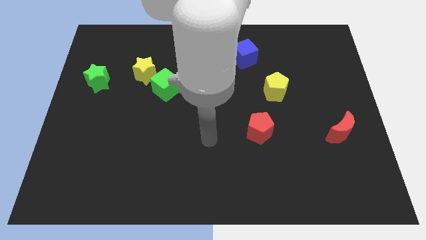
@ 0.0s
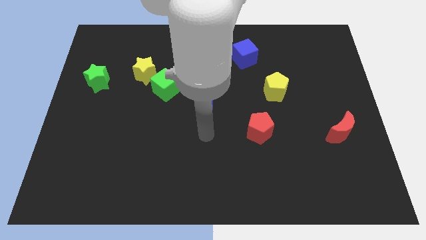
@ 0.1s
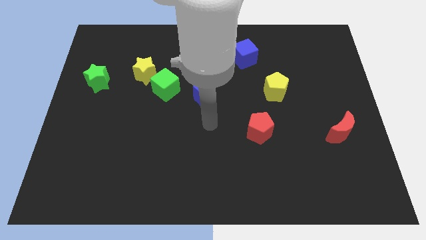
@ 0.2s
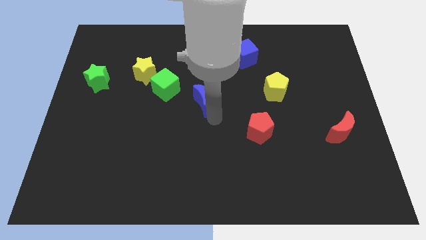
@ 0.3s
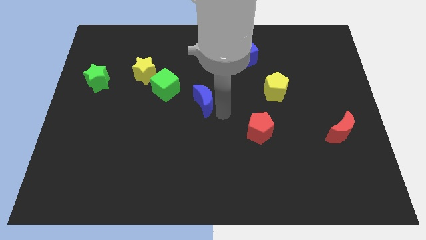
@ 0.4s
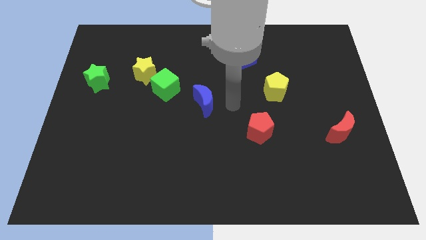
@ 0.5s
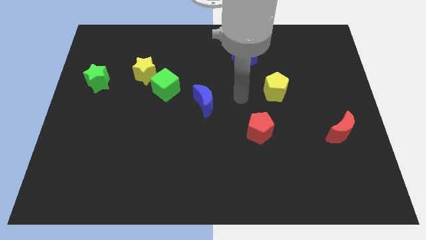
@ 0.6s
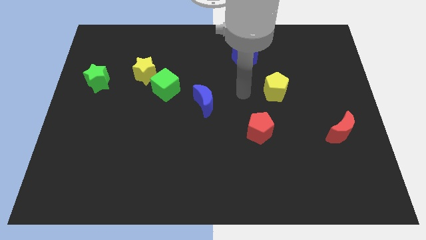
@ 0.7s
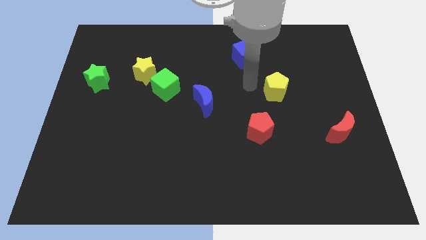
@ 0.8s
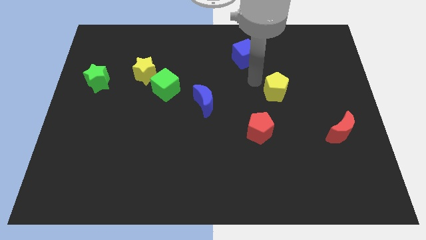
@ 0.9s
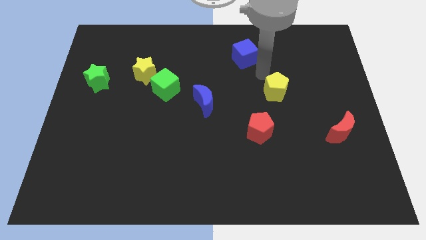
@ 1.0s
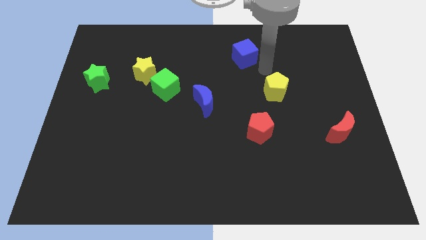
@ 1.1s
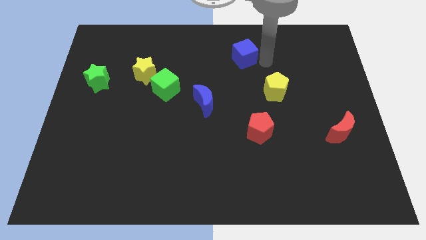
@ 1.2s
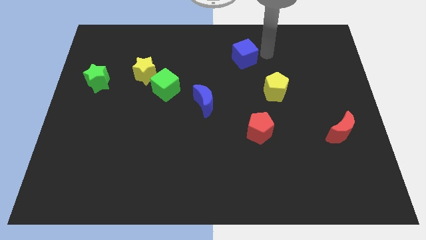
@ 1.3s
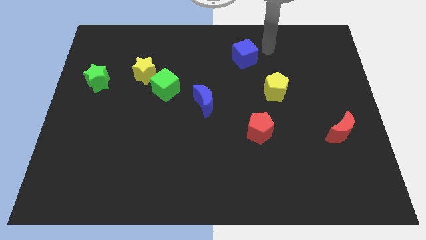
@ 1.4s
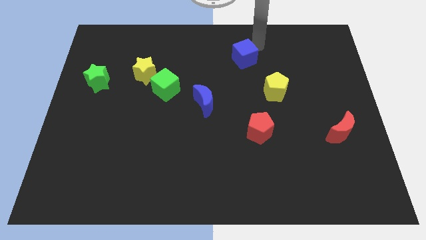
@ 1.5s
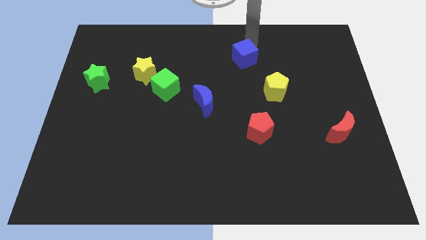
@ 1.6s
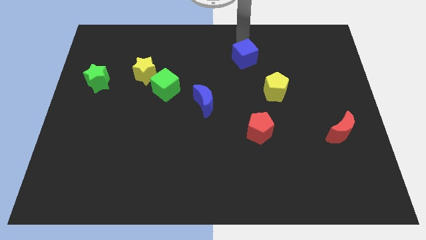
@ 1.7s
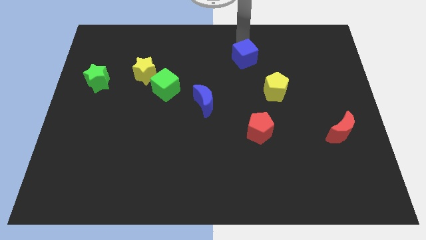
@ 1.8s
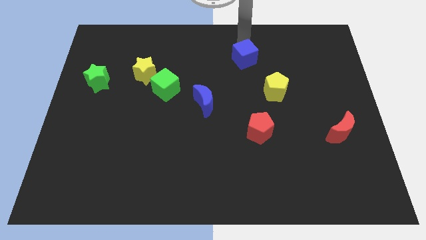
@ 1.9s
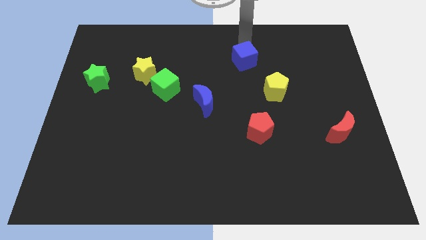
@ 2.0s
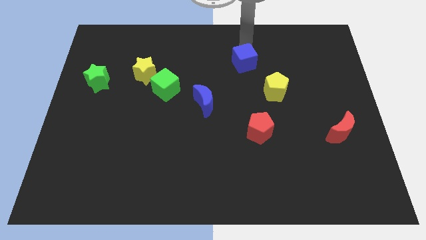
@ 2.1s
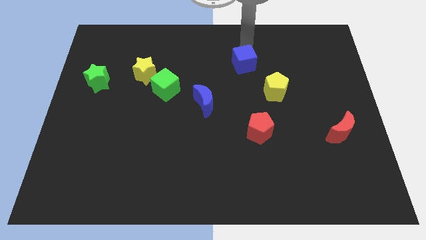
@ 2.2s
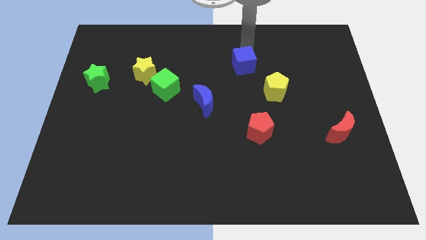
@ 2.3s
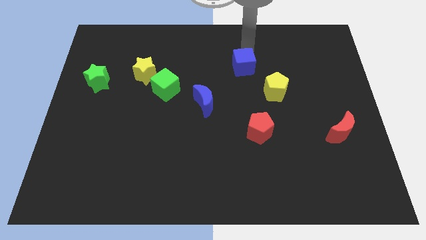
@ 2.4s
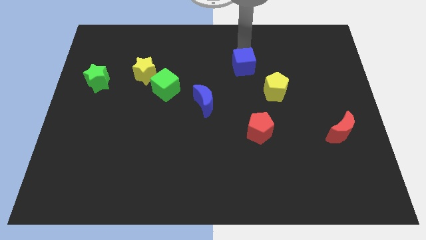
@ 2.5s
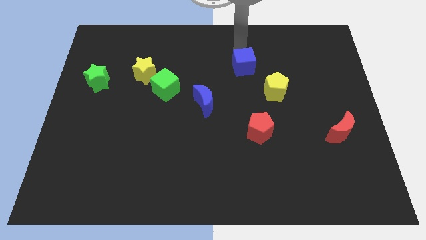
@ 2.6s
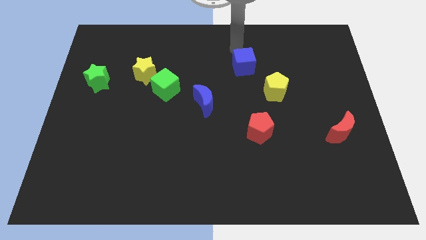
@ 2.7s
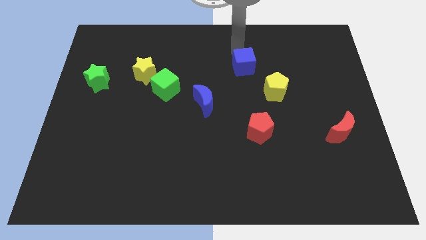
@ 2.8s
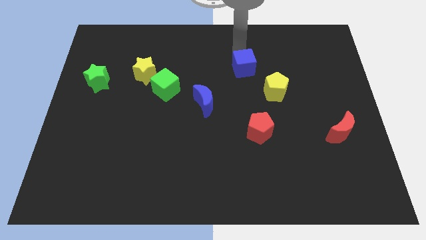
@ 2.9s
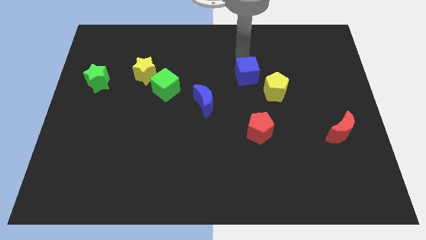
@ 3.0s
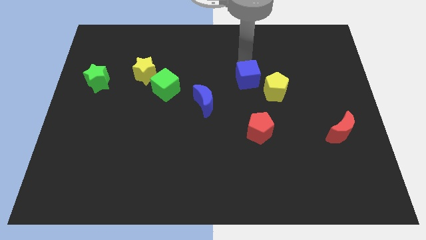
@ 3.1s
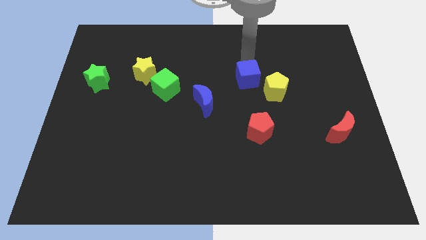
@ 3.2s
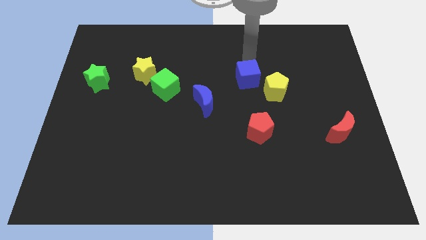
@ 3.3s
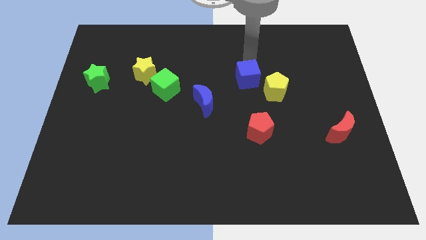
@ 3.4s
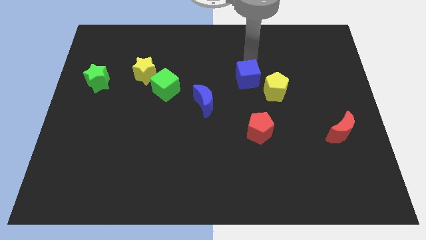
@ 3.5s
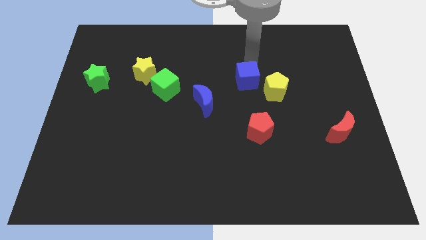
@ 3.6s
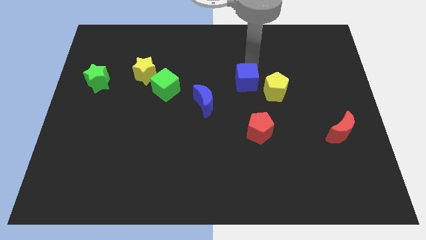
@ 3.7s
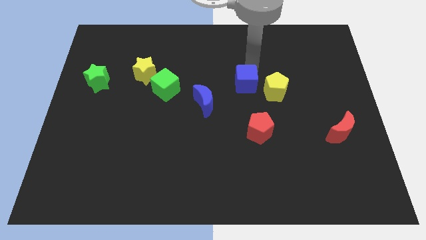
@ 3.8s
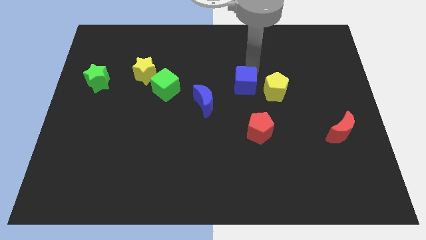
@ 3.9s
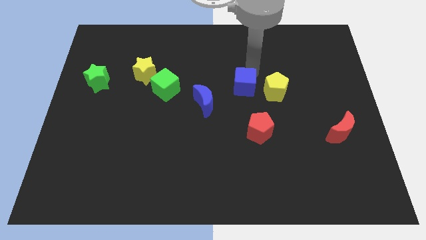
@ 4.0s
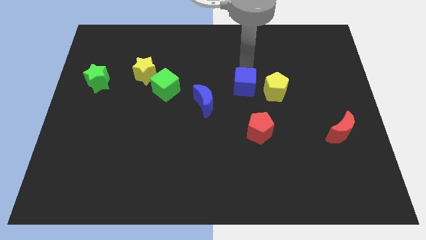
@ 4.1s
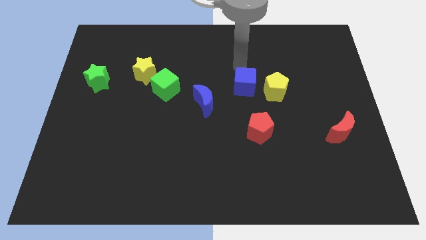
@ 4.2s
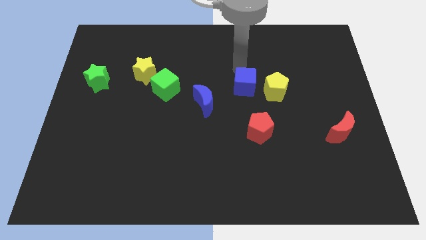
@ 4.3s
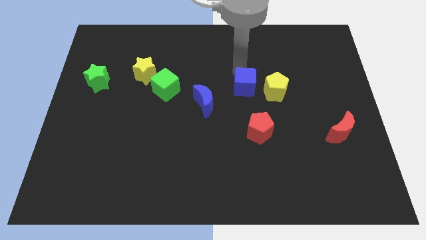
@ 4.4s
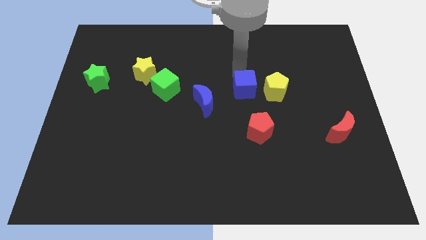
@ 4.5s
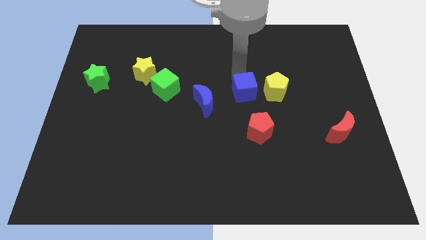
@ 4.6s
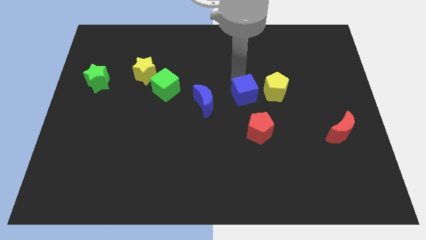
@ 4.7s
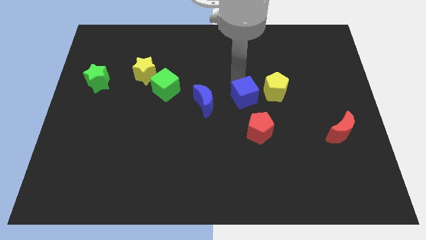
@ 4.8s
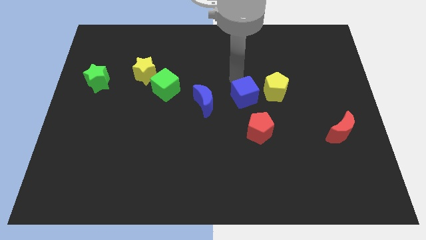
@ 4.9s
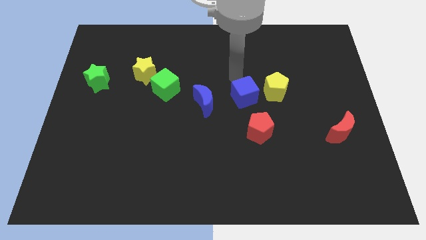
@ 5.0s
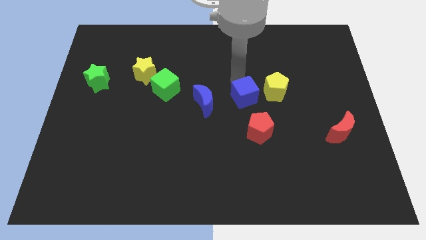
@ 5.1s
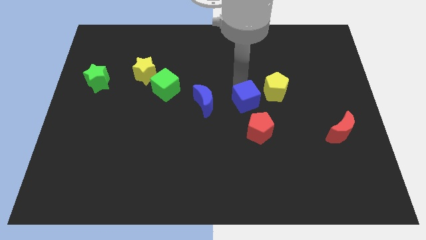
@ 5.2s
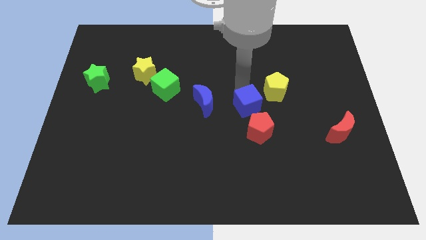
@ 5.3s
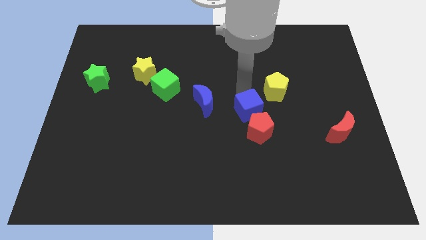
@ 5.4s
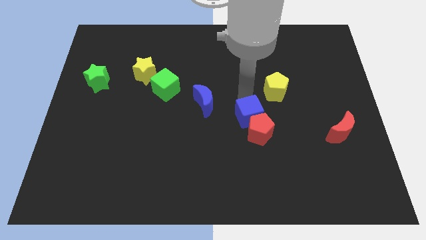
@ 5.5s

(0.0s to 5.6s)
move the blue cube towards the red pentagon

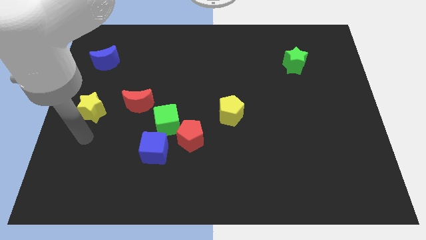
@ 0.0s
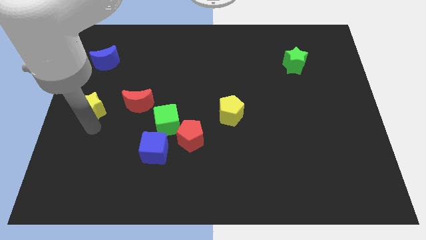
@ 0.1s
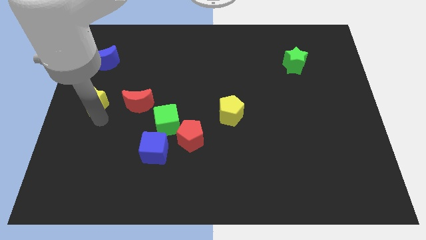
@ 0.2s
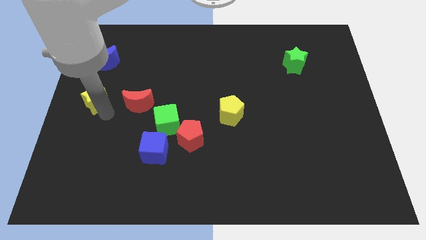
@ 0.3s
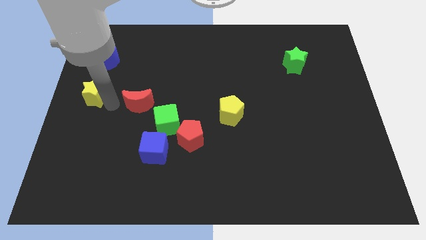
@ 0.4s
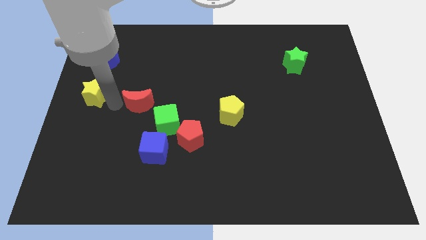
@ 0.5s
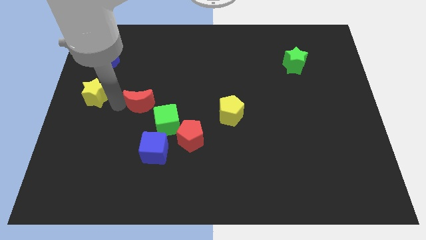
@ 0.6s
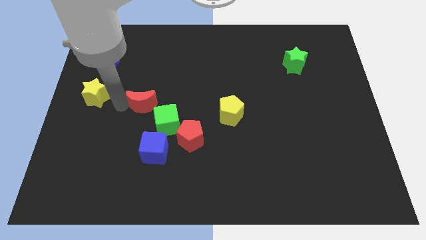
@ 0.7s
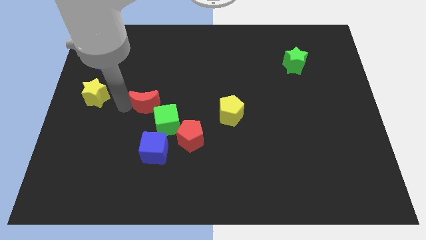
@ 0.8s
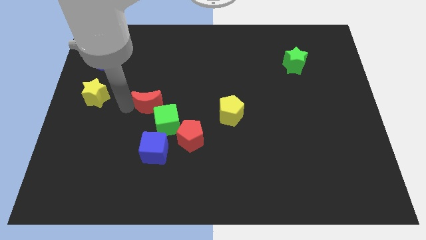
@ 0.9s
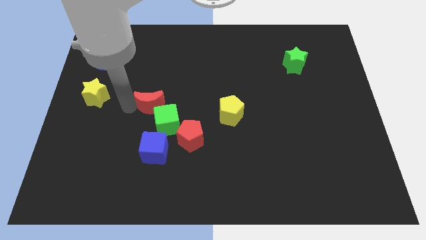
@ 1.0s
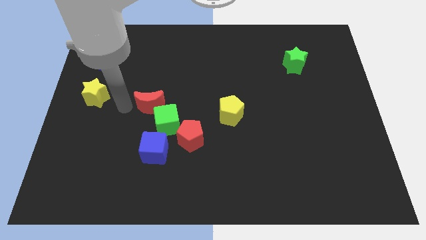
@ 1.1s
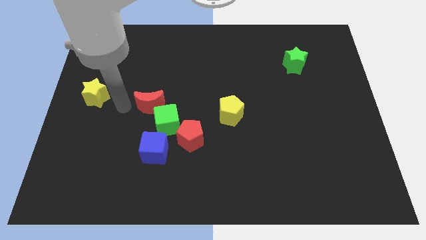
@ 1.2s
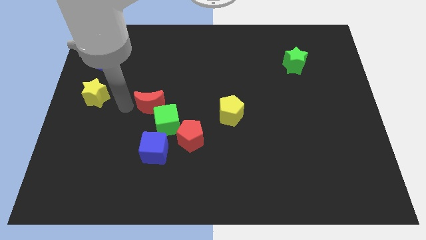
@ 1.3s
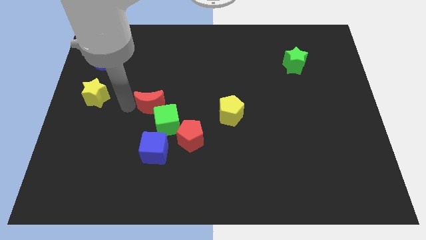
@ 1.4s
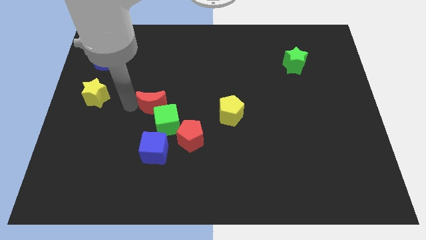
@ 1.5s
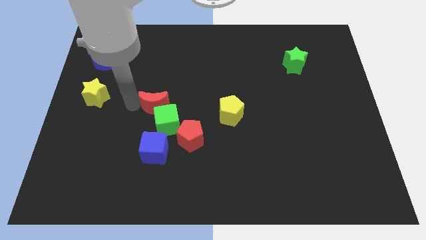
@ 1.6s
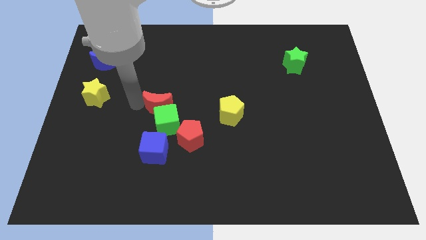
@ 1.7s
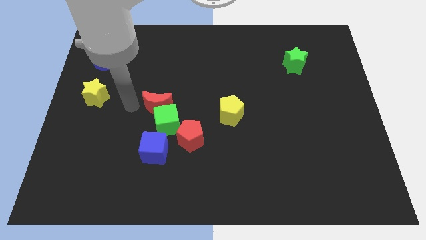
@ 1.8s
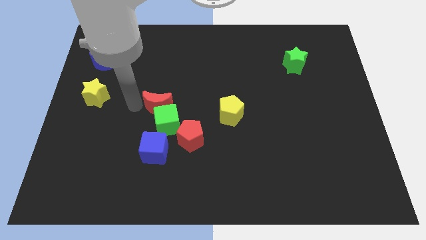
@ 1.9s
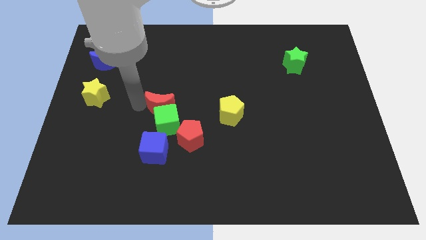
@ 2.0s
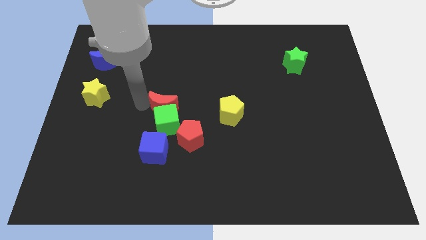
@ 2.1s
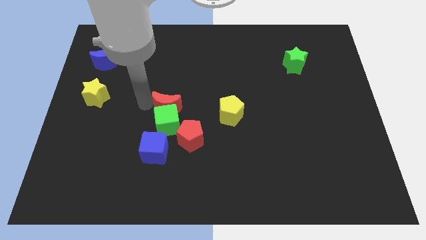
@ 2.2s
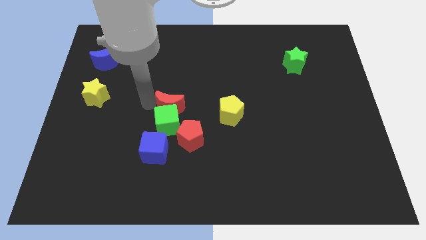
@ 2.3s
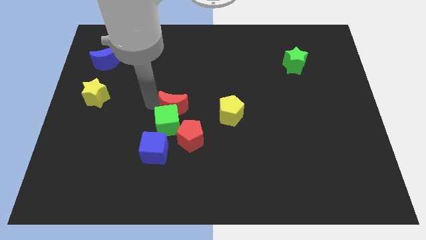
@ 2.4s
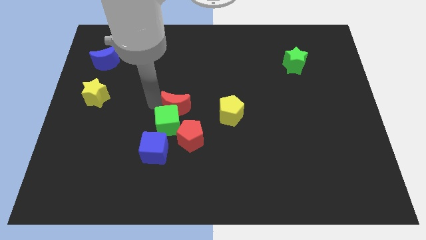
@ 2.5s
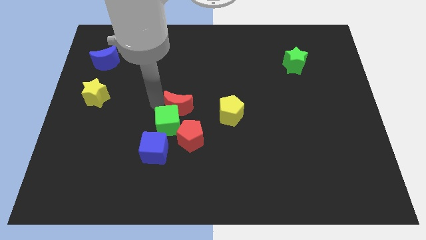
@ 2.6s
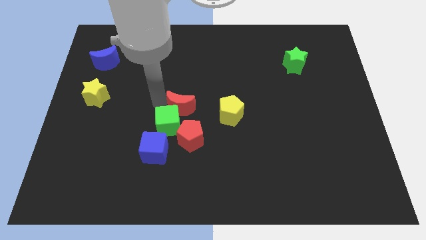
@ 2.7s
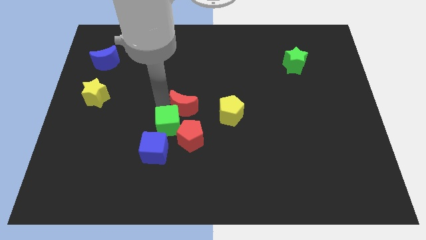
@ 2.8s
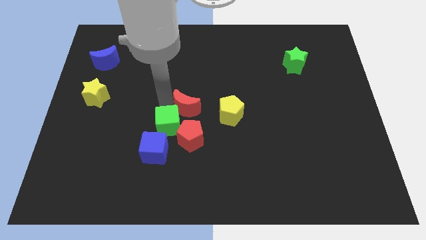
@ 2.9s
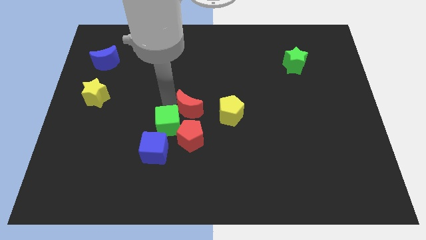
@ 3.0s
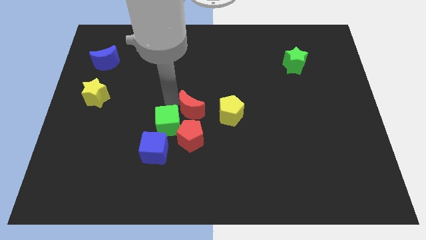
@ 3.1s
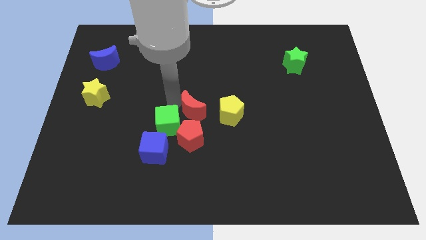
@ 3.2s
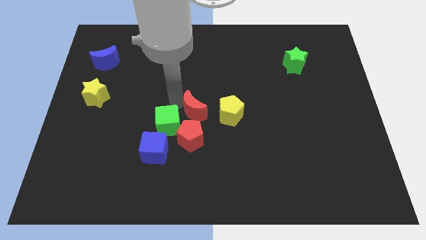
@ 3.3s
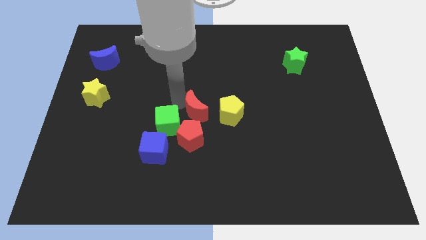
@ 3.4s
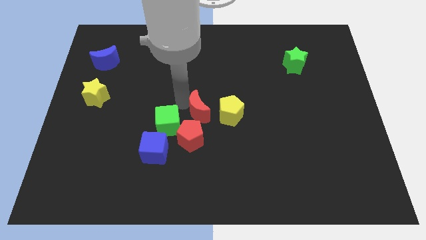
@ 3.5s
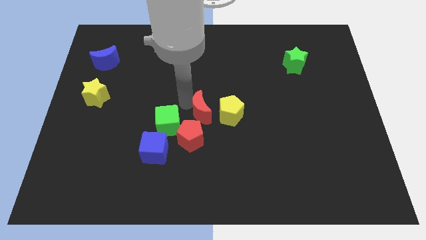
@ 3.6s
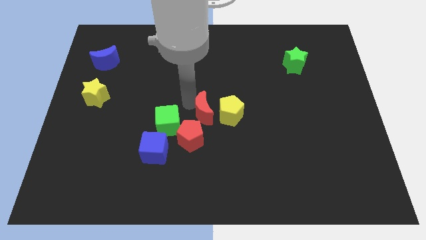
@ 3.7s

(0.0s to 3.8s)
move the red moon towards the yellow pentagon
